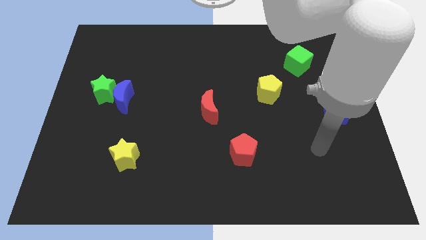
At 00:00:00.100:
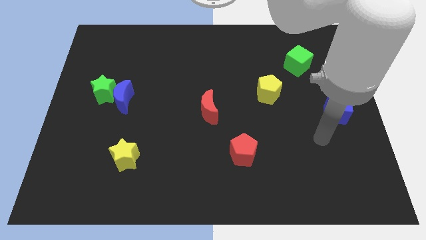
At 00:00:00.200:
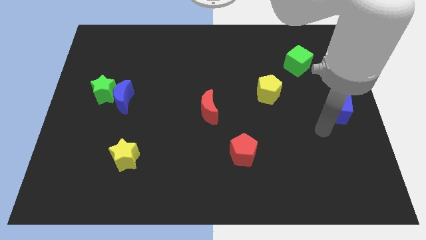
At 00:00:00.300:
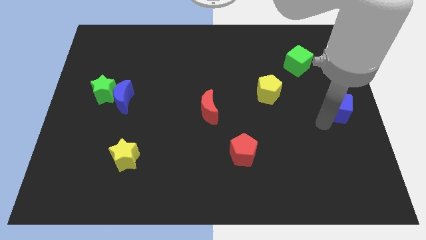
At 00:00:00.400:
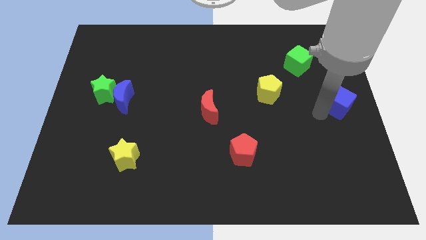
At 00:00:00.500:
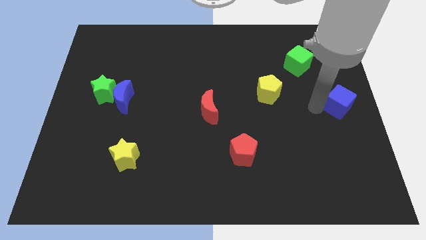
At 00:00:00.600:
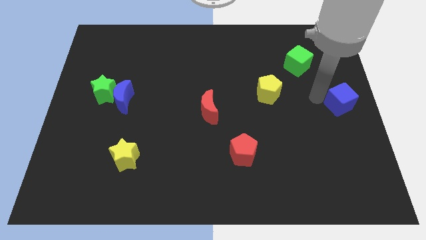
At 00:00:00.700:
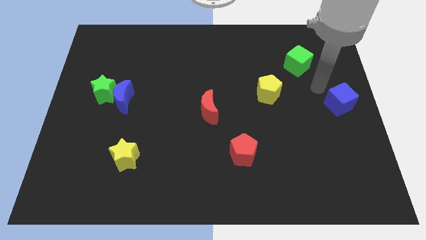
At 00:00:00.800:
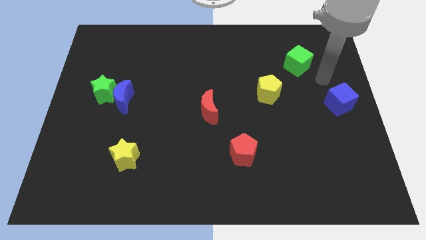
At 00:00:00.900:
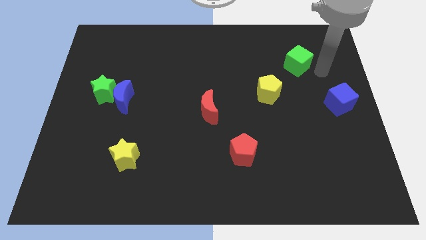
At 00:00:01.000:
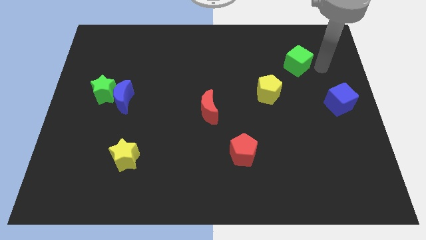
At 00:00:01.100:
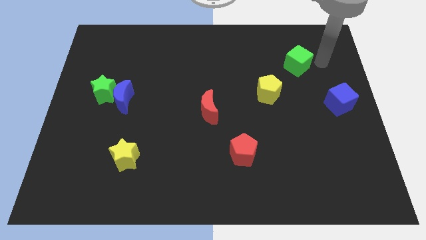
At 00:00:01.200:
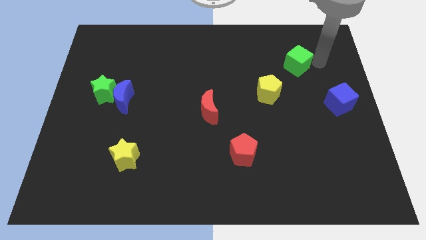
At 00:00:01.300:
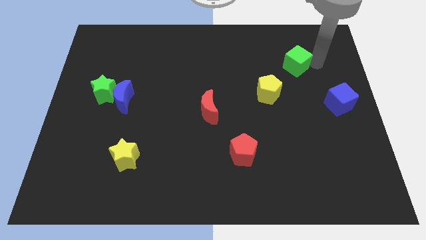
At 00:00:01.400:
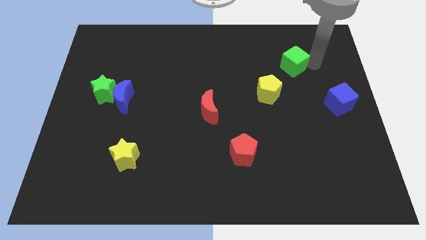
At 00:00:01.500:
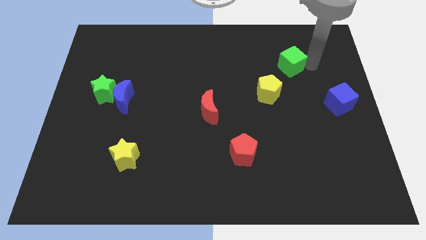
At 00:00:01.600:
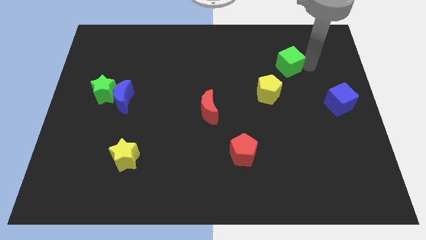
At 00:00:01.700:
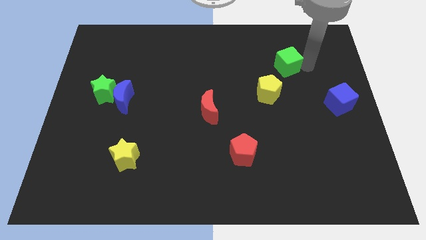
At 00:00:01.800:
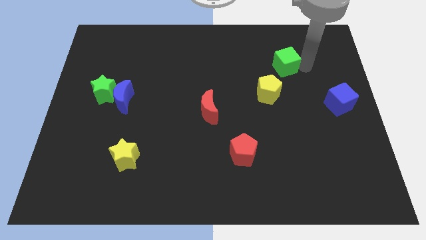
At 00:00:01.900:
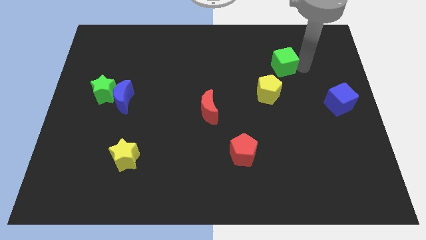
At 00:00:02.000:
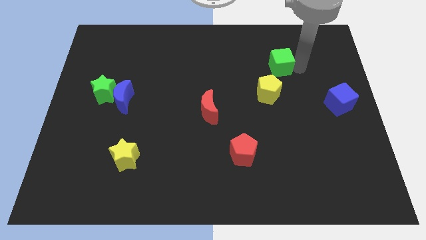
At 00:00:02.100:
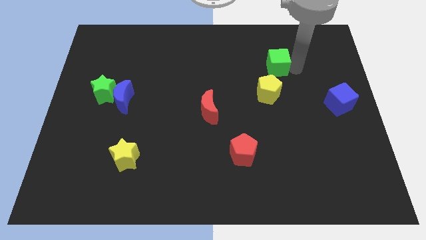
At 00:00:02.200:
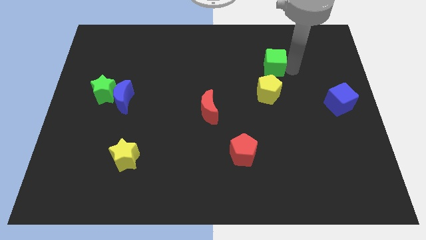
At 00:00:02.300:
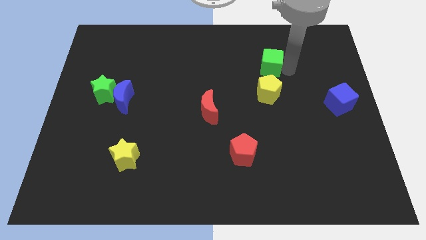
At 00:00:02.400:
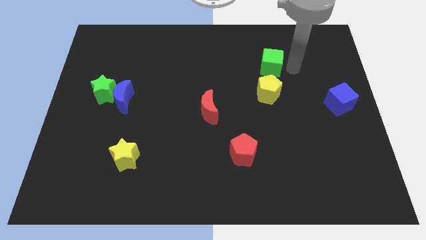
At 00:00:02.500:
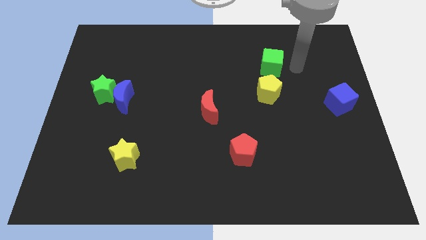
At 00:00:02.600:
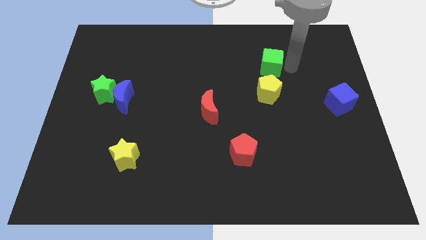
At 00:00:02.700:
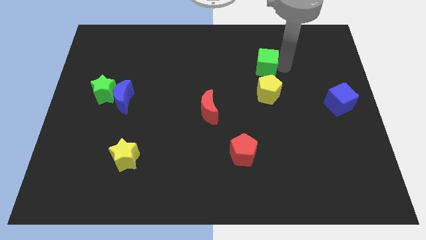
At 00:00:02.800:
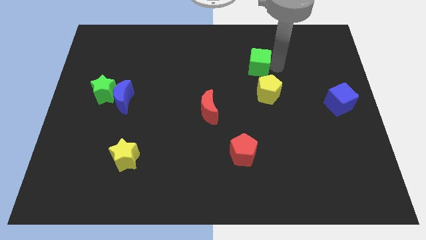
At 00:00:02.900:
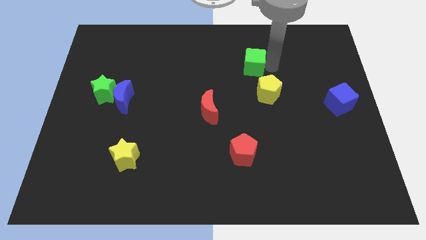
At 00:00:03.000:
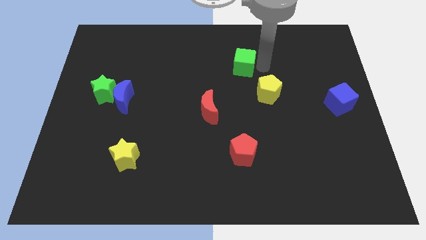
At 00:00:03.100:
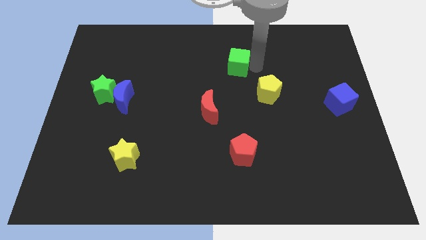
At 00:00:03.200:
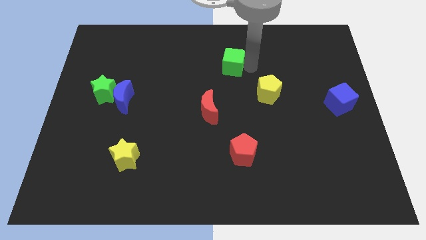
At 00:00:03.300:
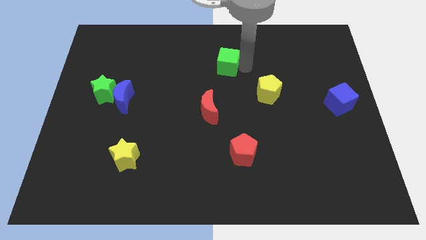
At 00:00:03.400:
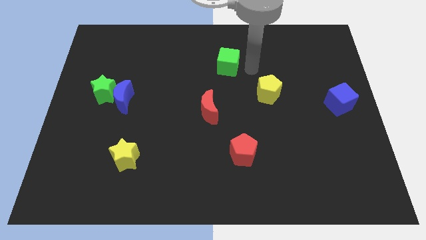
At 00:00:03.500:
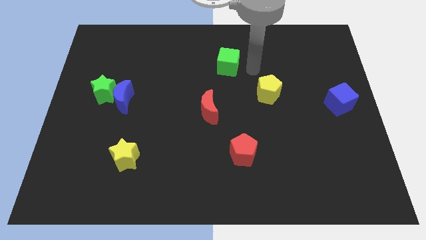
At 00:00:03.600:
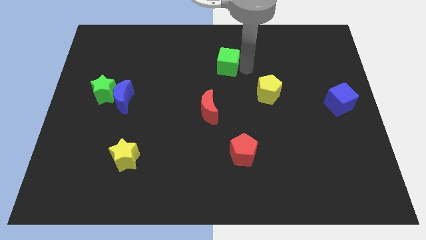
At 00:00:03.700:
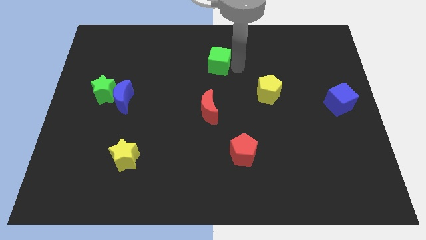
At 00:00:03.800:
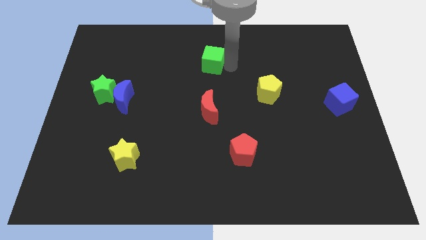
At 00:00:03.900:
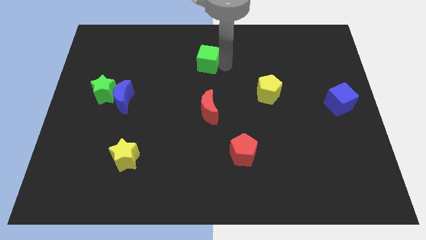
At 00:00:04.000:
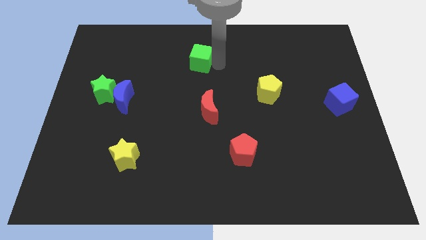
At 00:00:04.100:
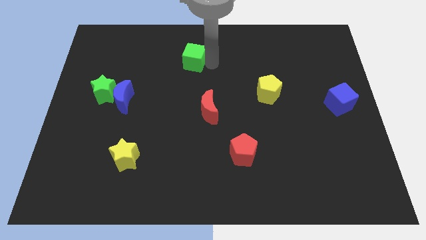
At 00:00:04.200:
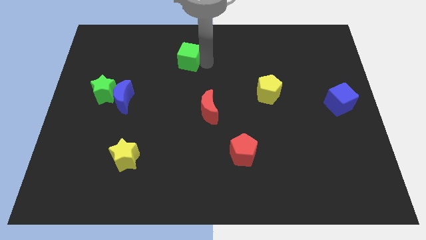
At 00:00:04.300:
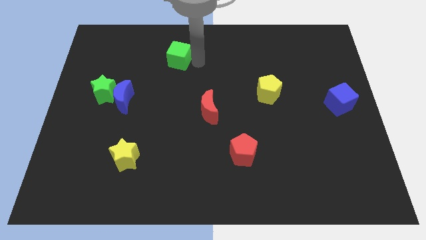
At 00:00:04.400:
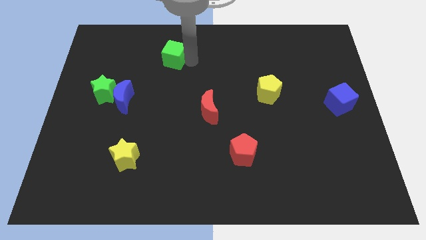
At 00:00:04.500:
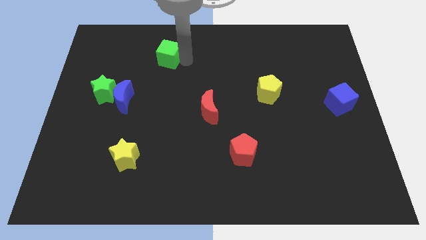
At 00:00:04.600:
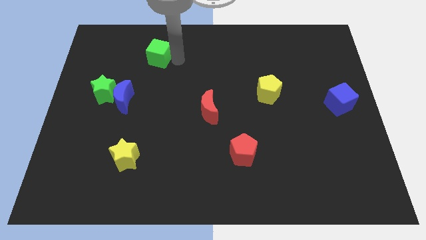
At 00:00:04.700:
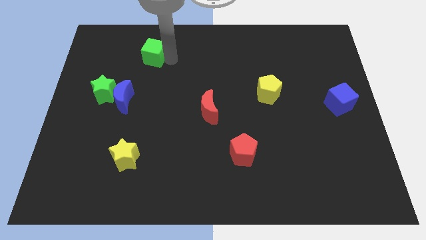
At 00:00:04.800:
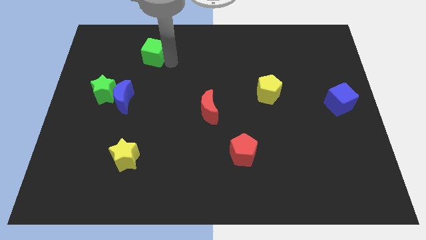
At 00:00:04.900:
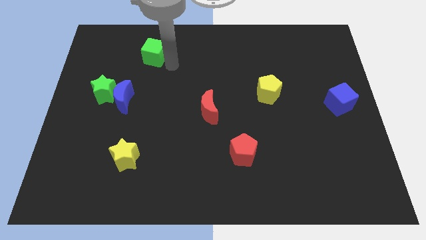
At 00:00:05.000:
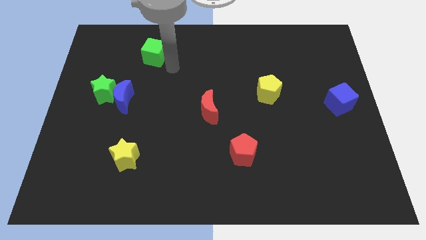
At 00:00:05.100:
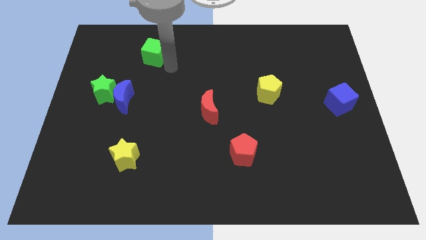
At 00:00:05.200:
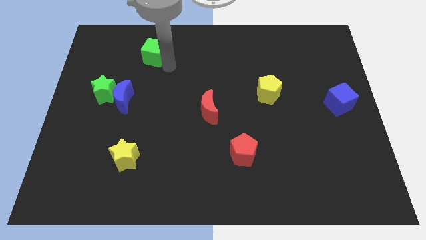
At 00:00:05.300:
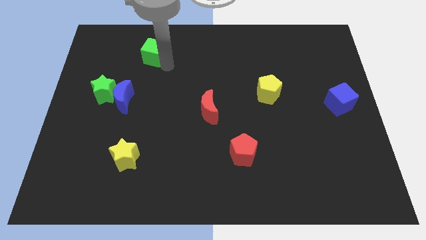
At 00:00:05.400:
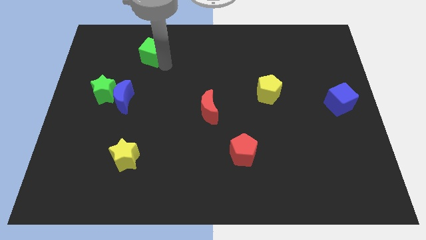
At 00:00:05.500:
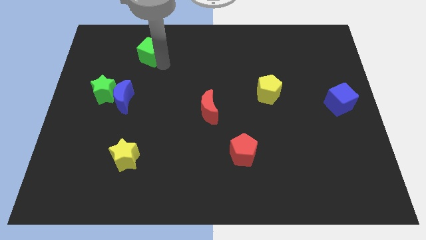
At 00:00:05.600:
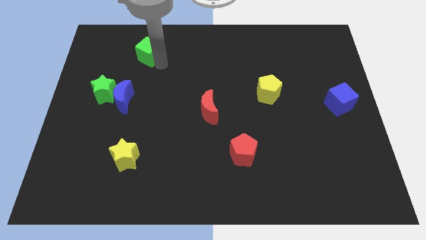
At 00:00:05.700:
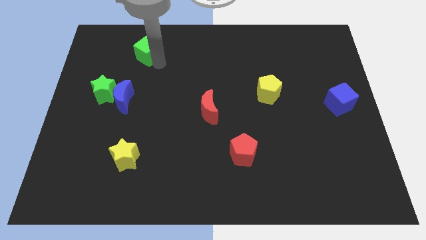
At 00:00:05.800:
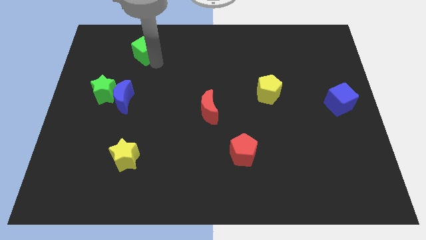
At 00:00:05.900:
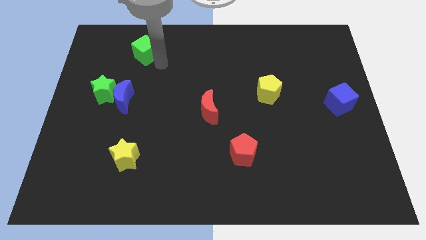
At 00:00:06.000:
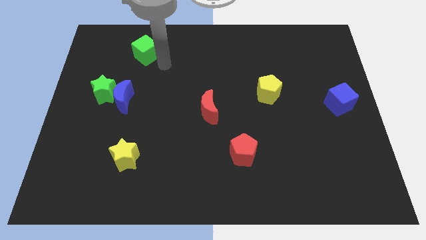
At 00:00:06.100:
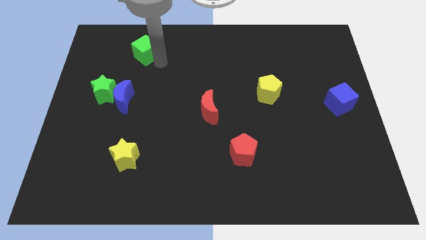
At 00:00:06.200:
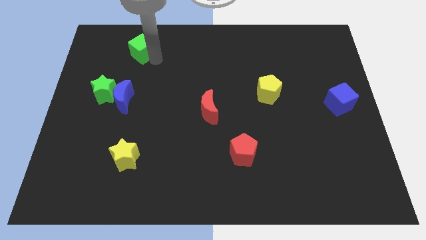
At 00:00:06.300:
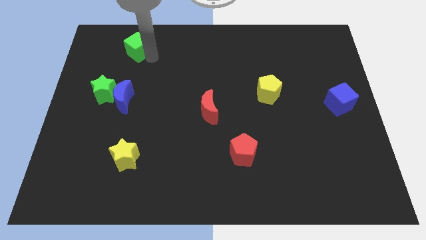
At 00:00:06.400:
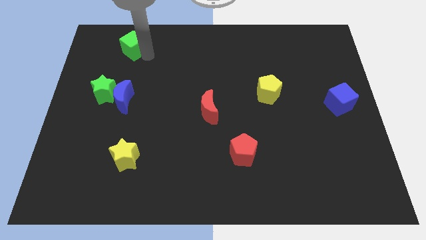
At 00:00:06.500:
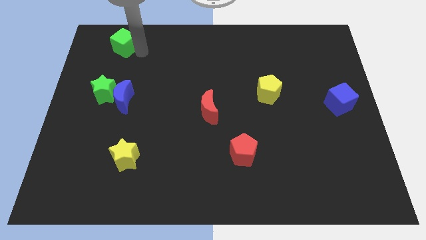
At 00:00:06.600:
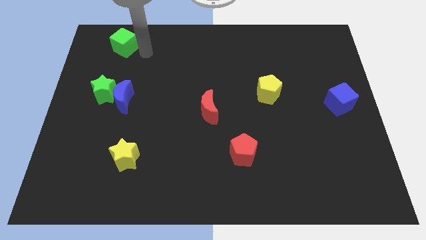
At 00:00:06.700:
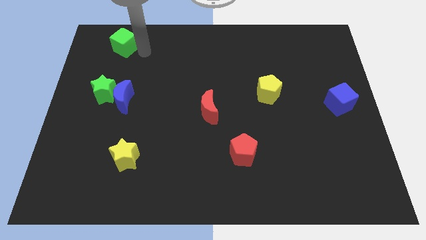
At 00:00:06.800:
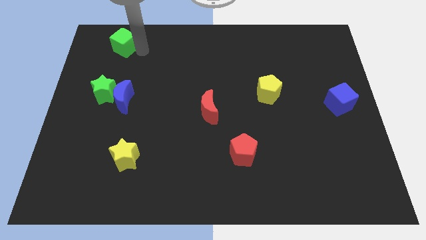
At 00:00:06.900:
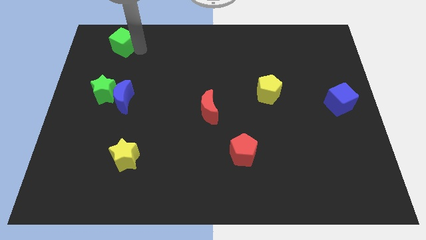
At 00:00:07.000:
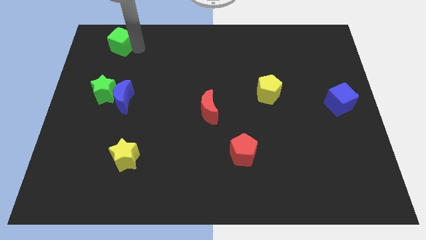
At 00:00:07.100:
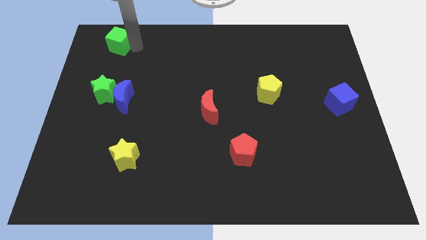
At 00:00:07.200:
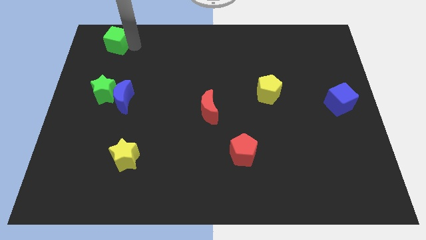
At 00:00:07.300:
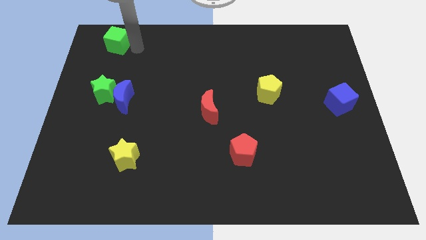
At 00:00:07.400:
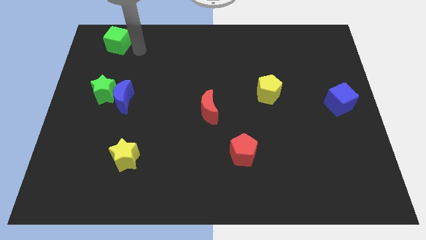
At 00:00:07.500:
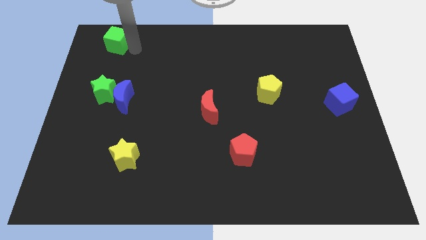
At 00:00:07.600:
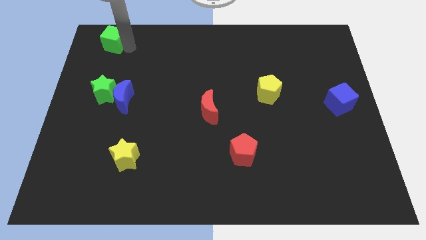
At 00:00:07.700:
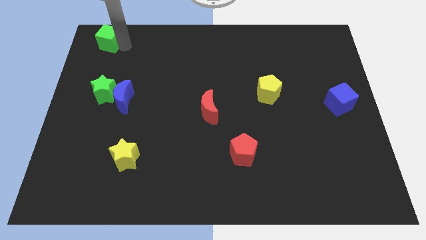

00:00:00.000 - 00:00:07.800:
push the green cube to the upper left corner
